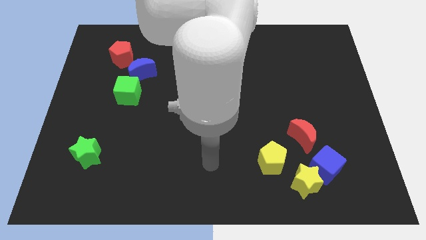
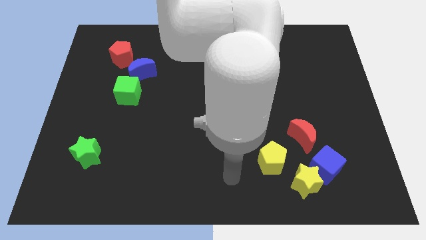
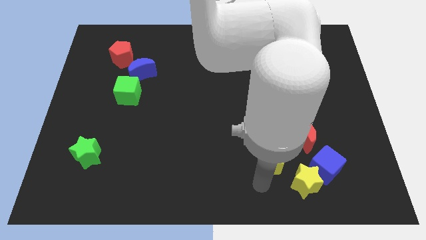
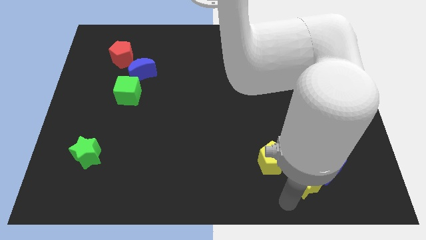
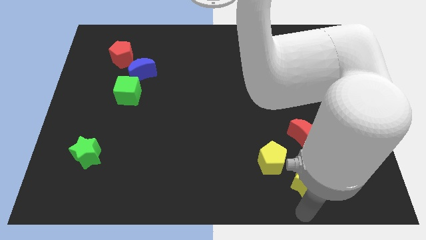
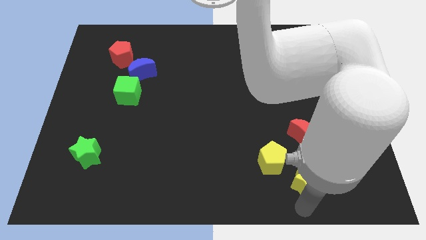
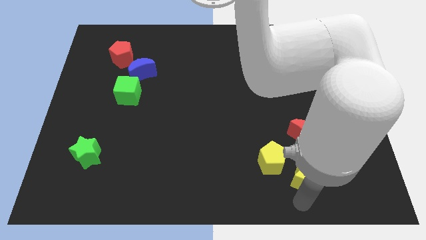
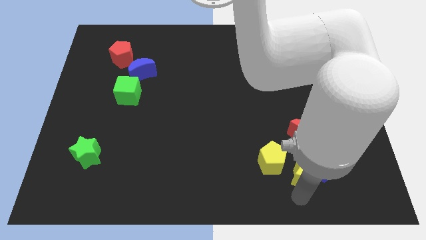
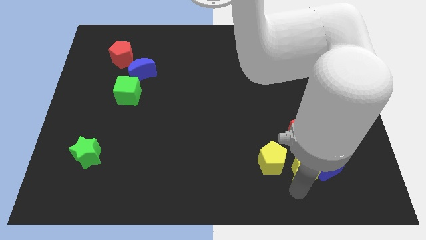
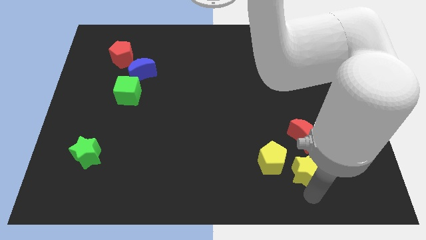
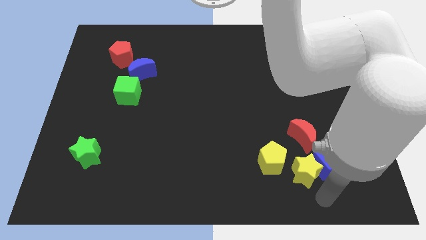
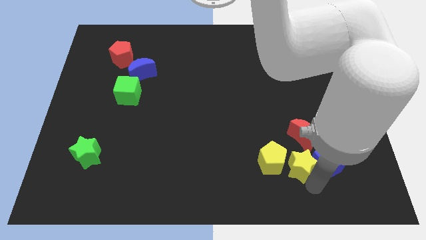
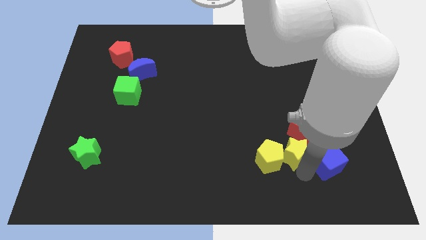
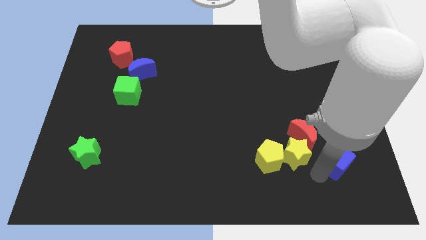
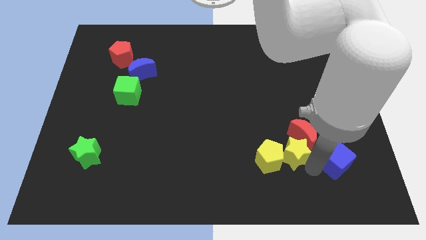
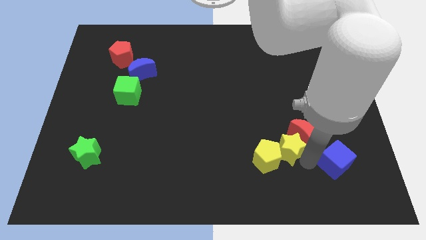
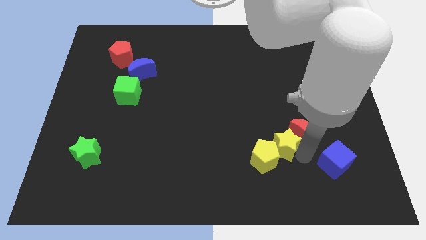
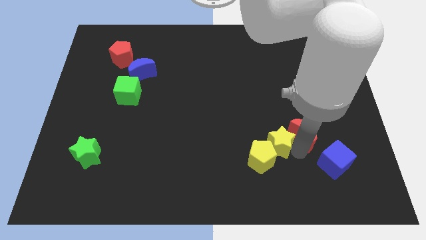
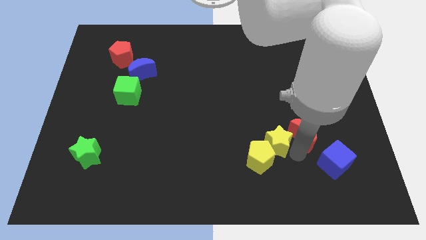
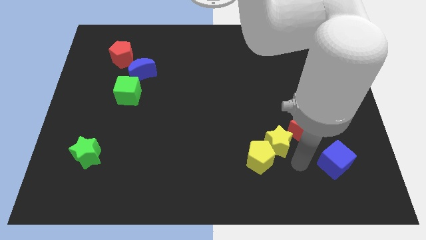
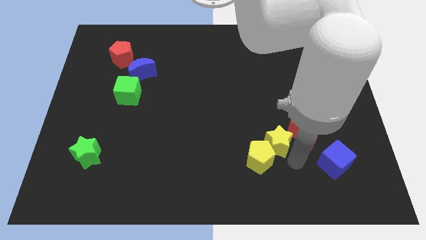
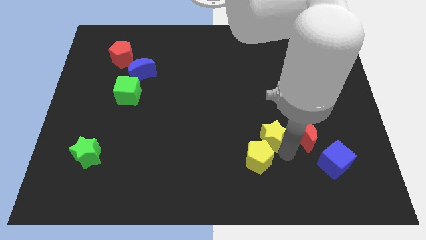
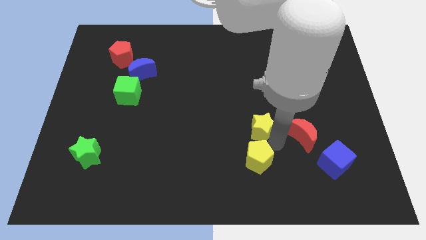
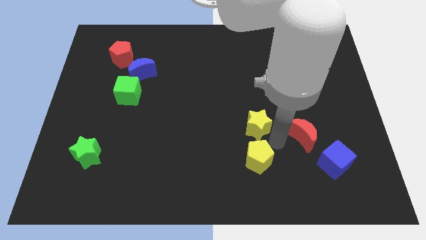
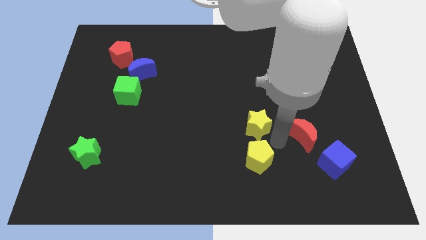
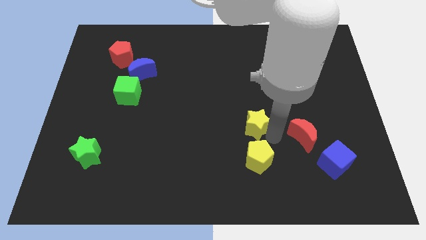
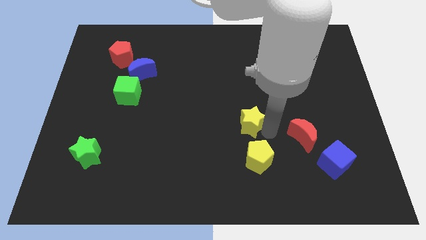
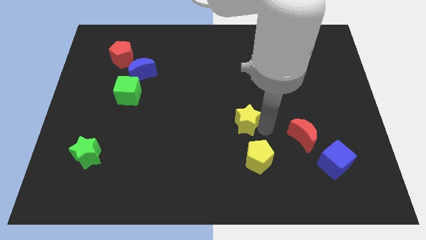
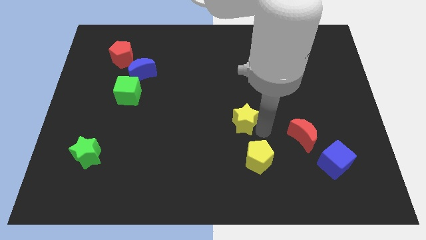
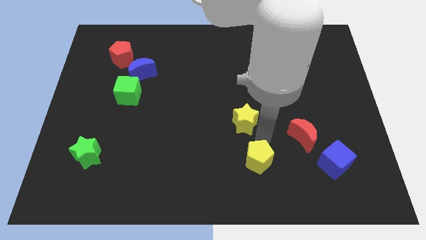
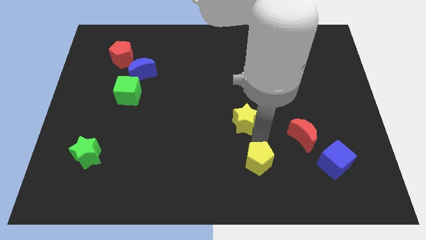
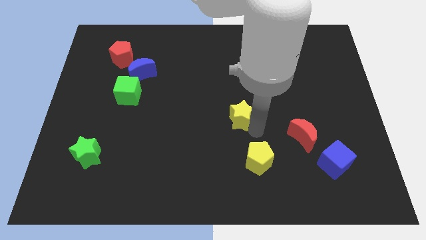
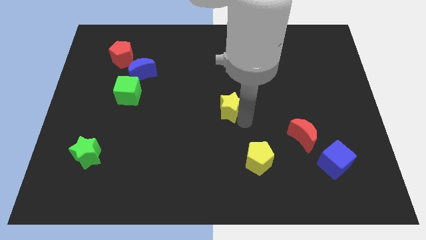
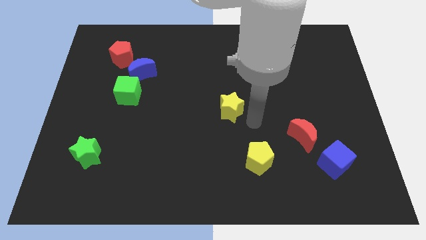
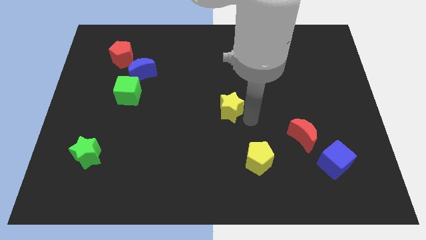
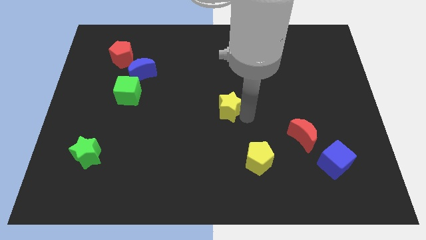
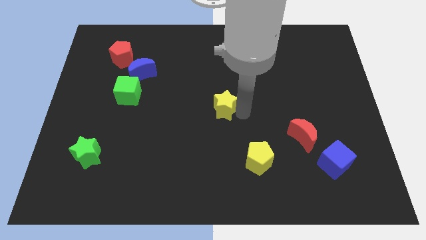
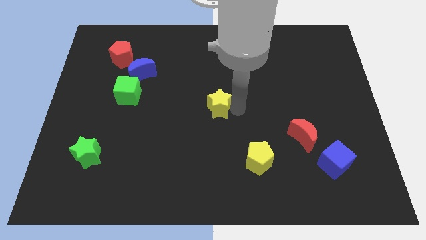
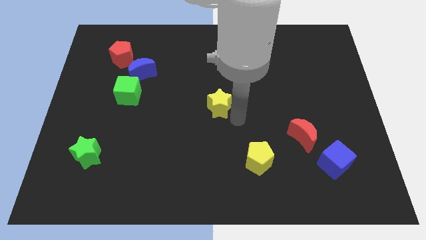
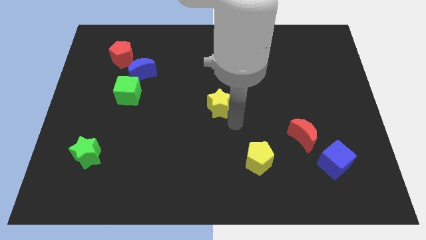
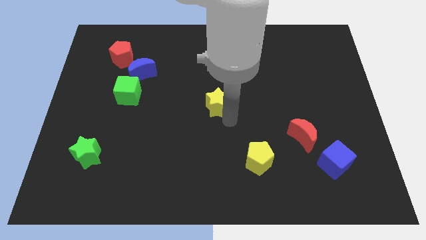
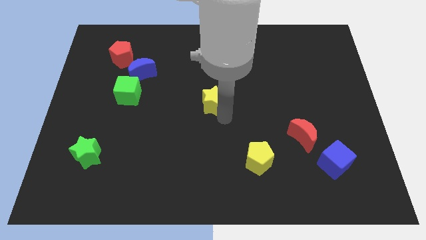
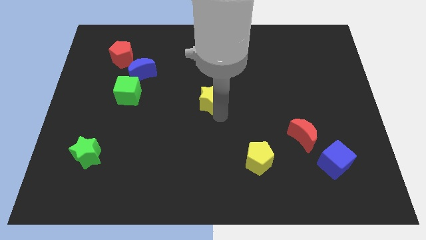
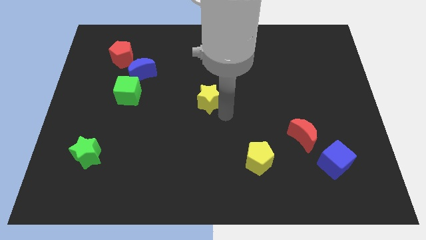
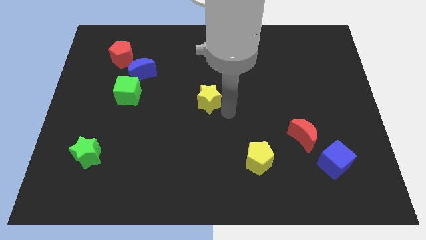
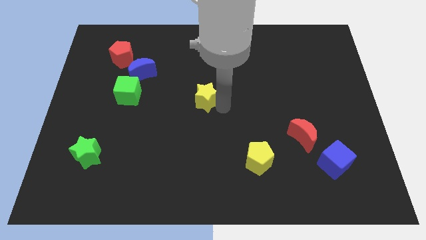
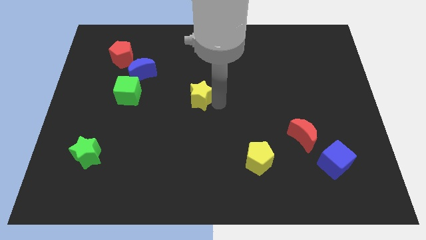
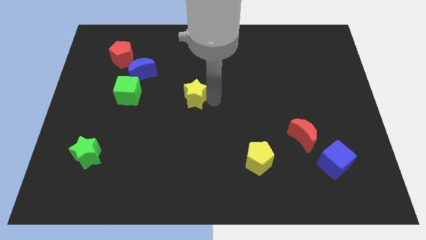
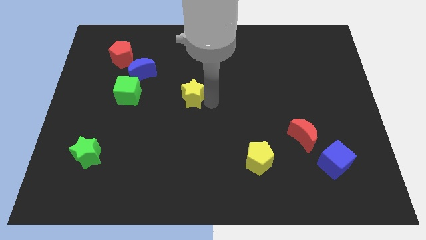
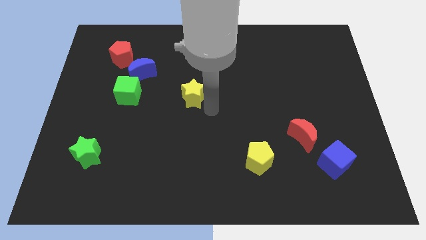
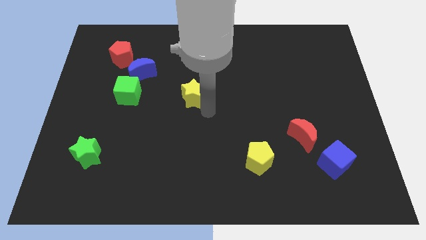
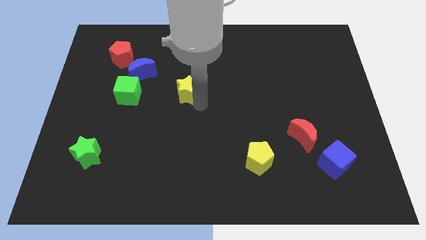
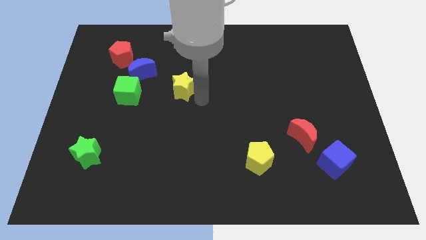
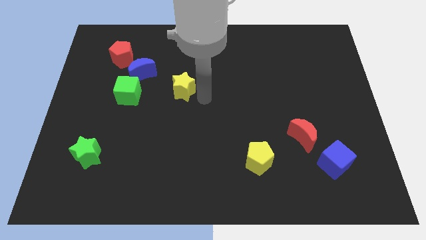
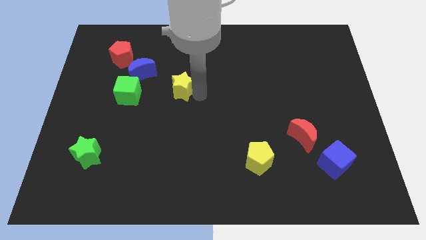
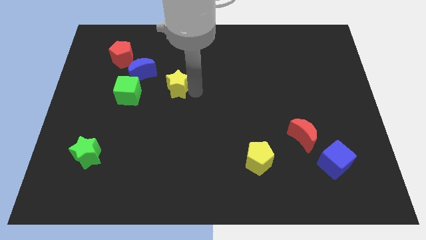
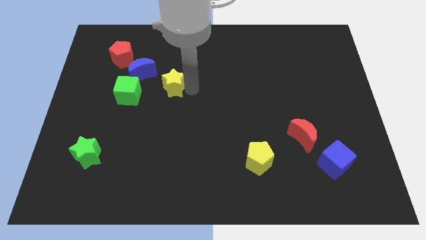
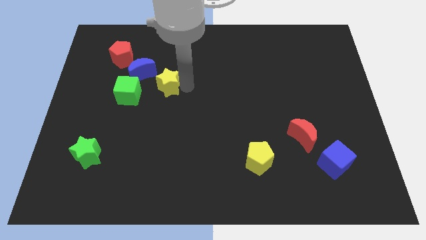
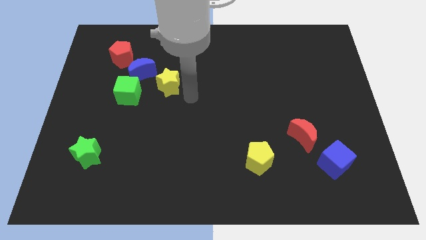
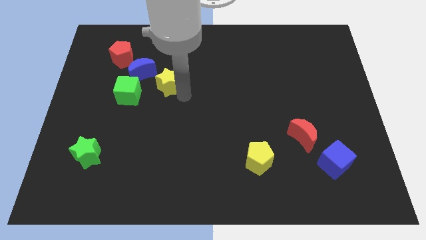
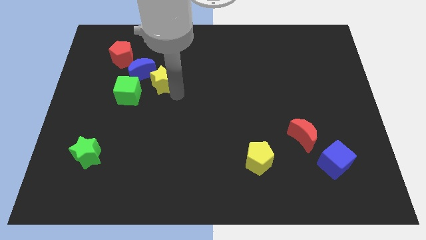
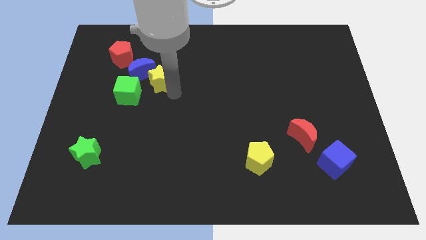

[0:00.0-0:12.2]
move the yellow star to the blue moon

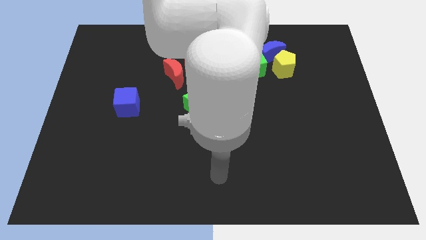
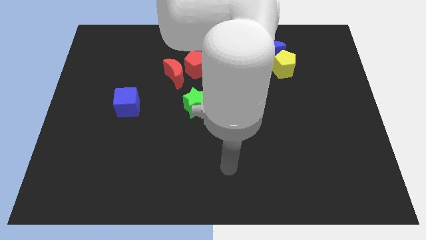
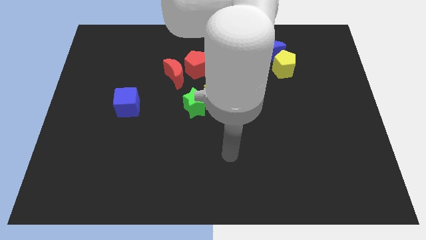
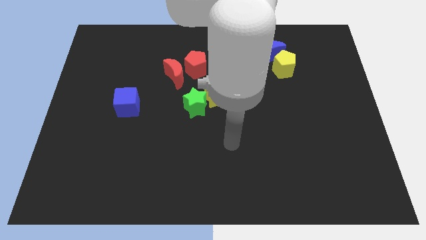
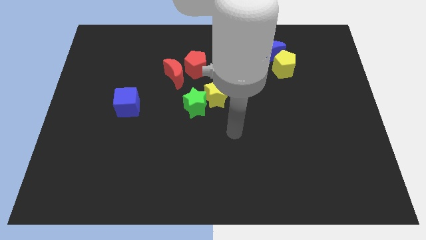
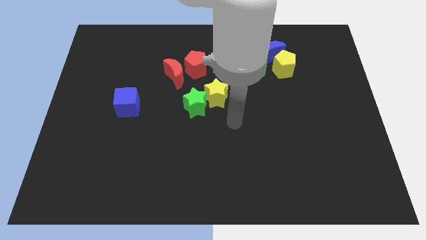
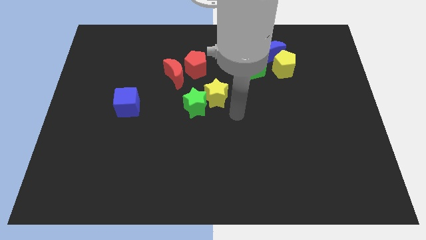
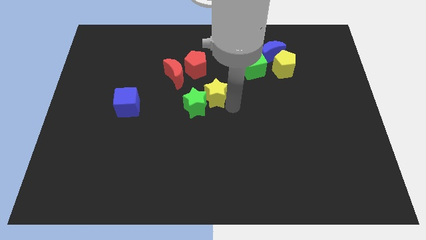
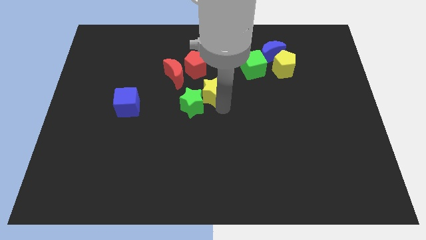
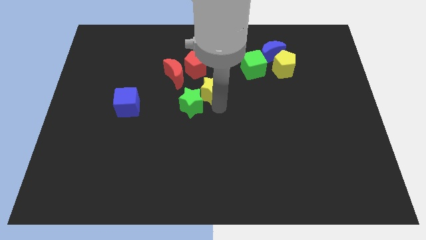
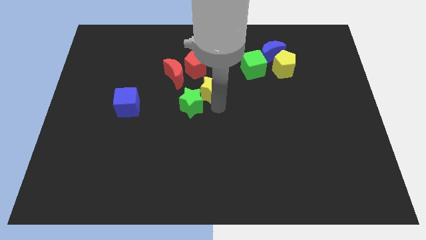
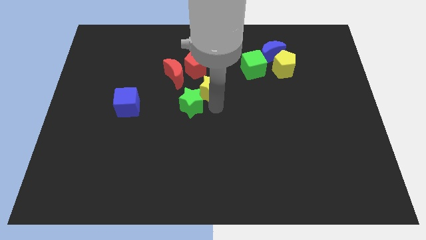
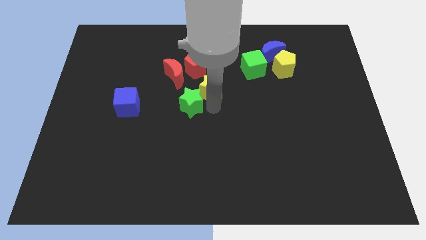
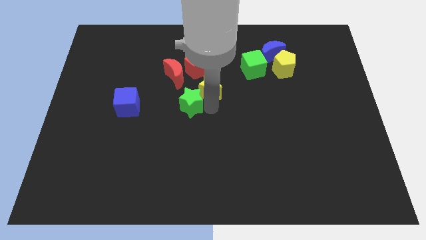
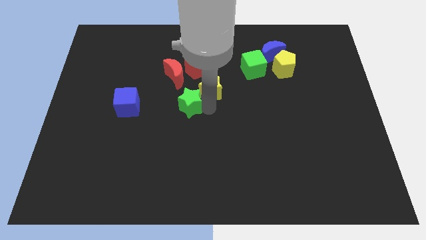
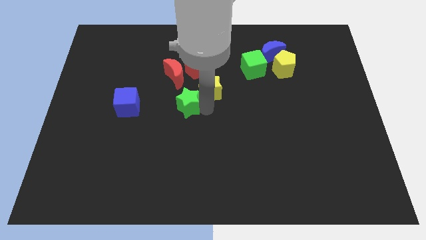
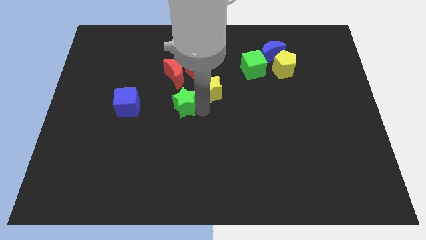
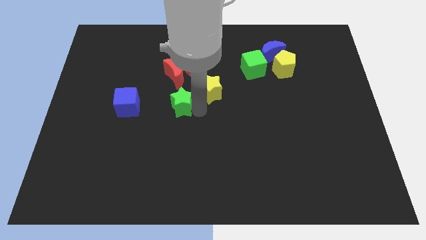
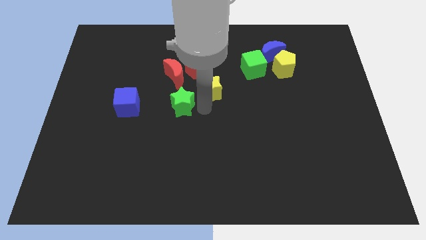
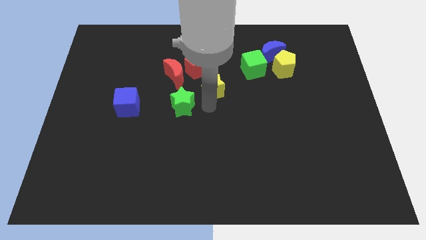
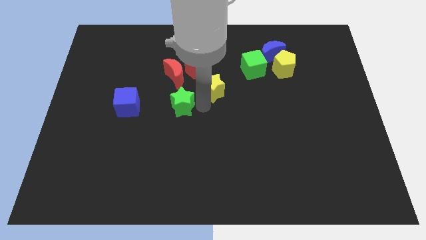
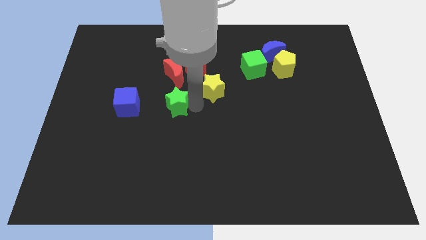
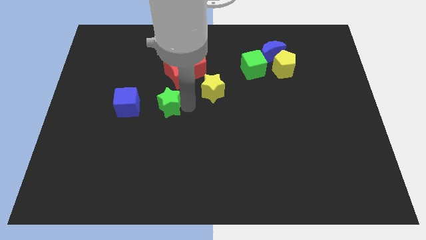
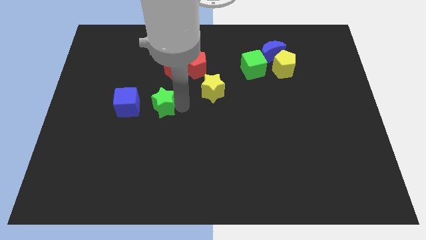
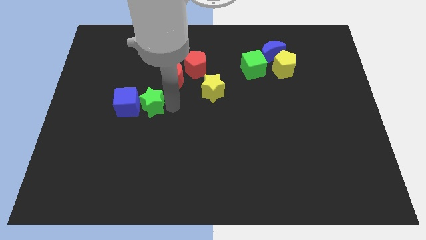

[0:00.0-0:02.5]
move the green star towards the blue cube
